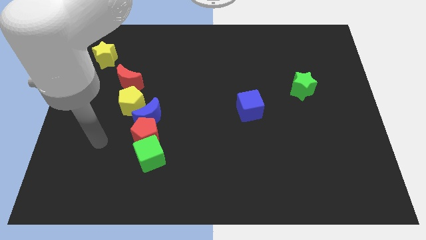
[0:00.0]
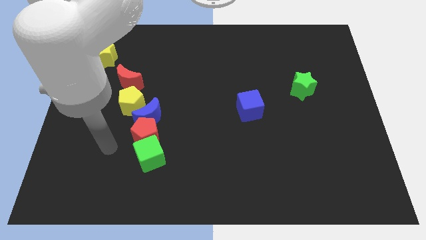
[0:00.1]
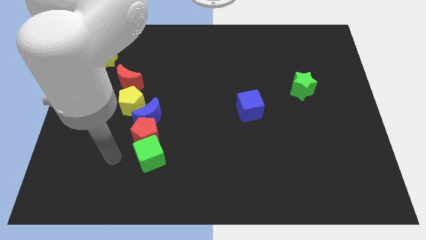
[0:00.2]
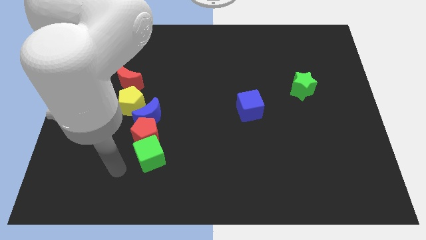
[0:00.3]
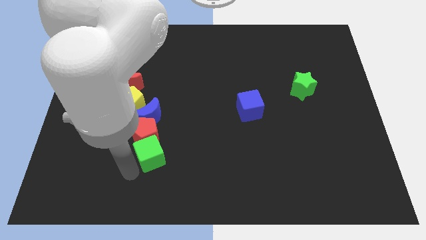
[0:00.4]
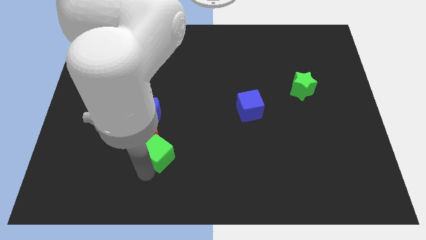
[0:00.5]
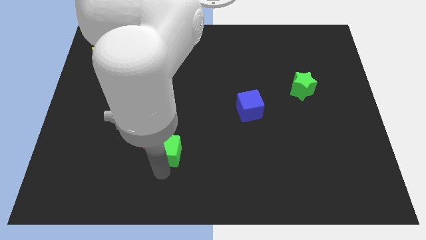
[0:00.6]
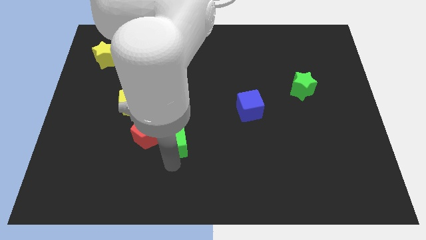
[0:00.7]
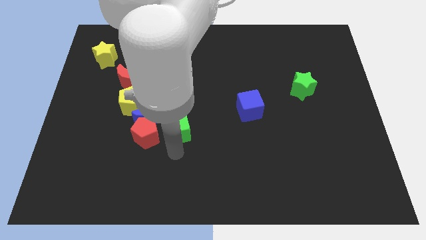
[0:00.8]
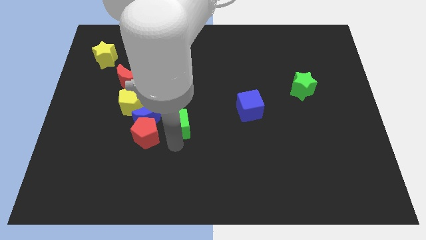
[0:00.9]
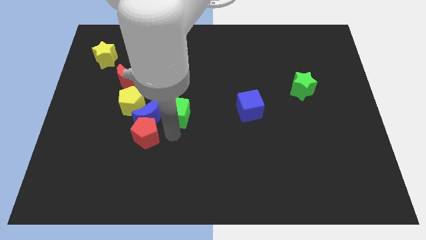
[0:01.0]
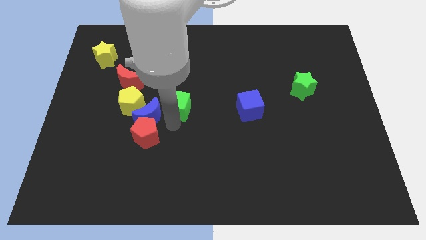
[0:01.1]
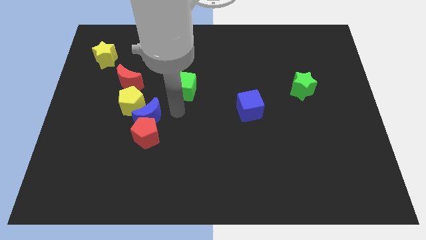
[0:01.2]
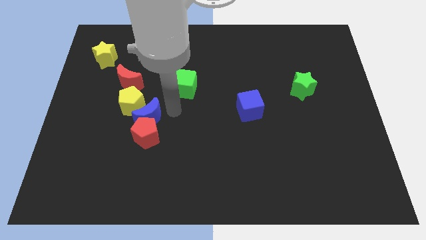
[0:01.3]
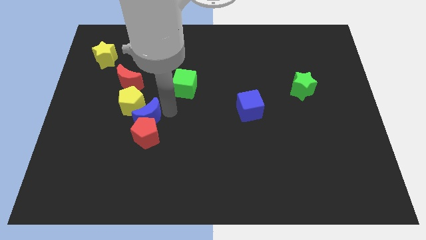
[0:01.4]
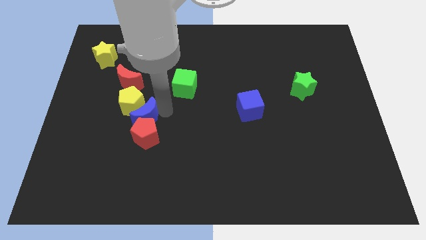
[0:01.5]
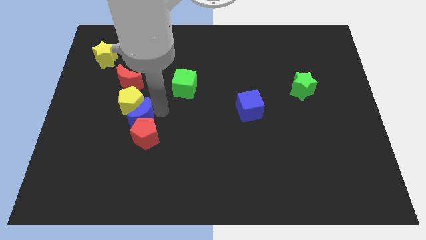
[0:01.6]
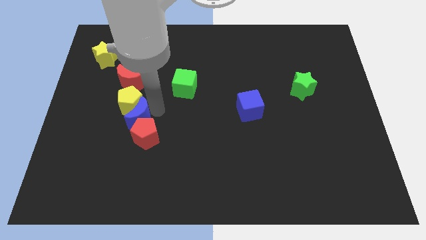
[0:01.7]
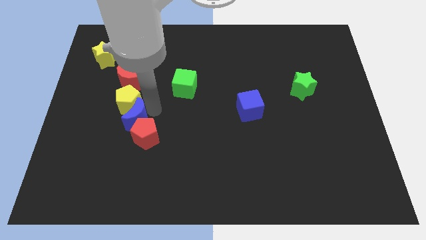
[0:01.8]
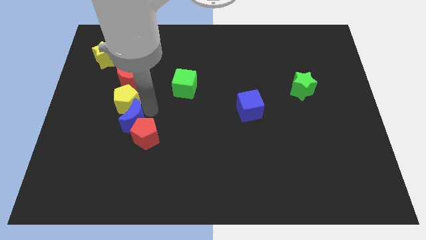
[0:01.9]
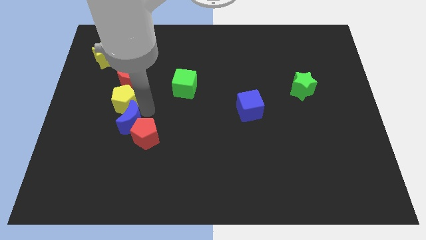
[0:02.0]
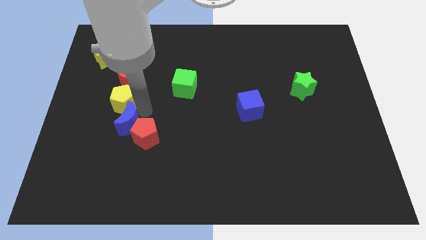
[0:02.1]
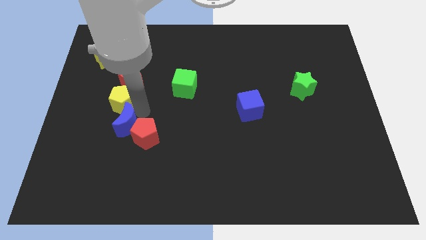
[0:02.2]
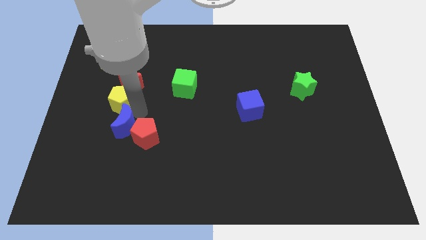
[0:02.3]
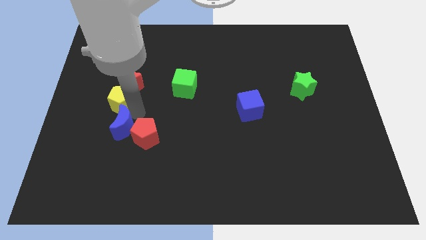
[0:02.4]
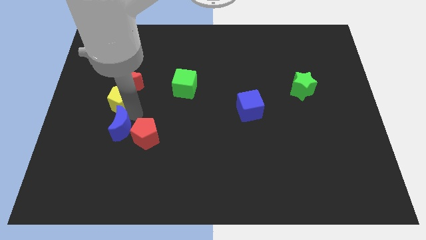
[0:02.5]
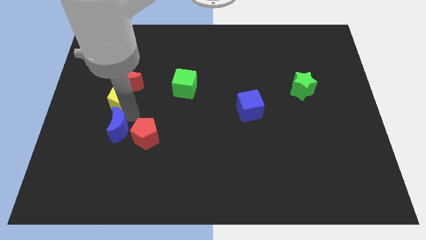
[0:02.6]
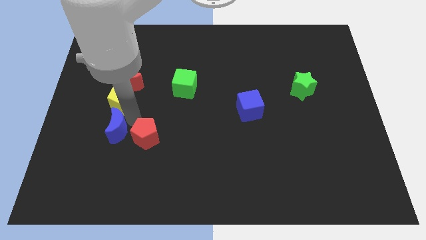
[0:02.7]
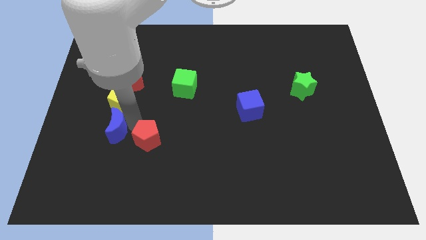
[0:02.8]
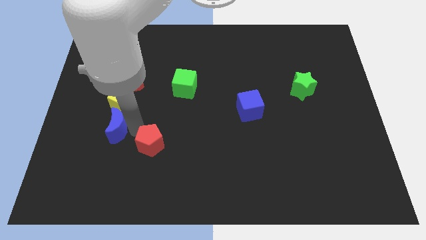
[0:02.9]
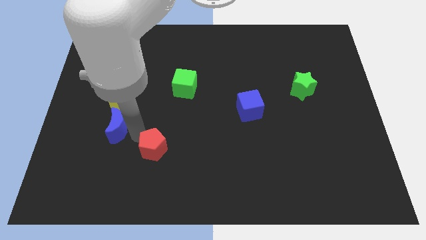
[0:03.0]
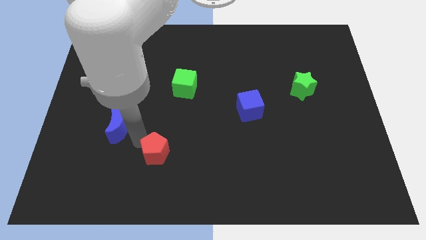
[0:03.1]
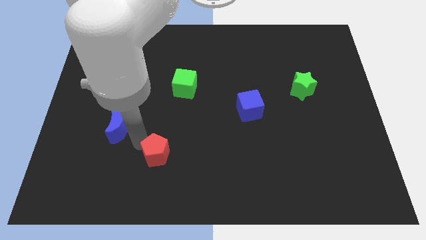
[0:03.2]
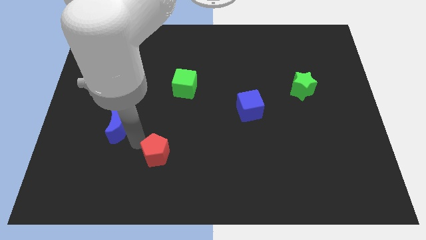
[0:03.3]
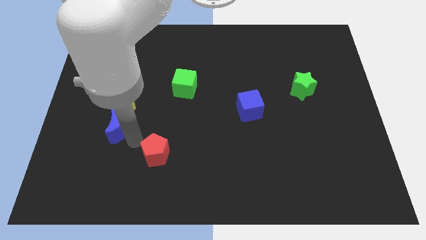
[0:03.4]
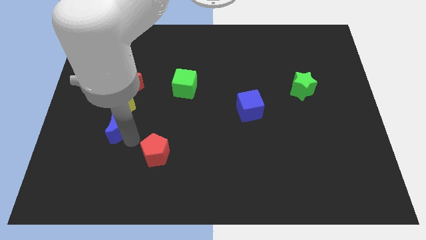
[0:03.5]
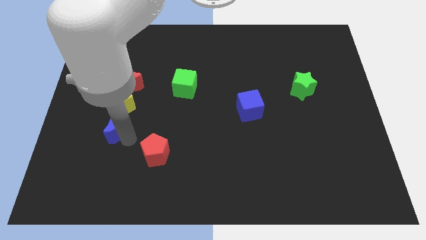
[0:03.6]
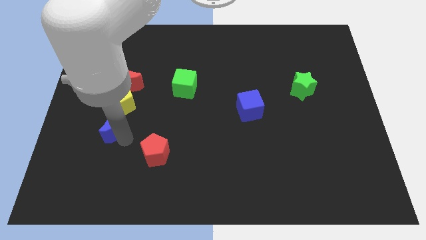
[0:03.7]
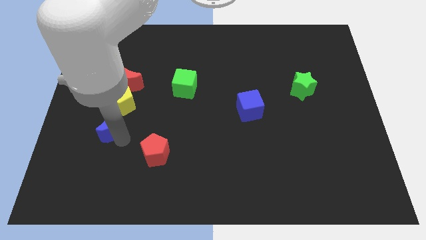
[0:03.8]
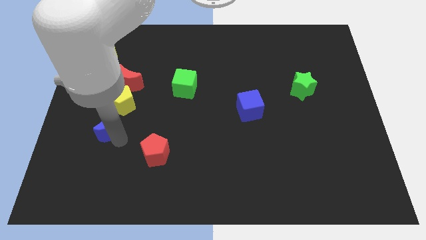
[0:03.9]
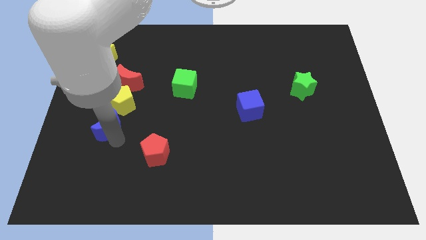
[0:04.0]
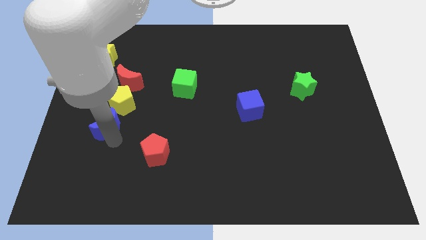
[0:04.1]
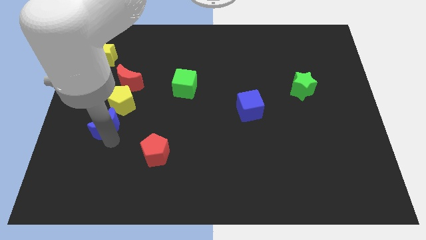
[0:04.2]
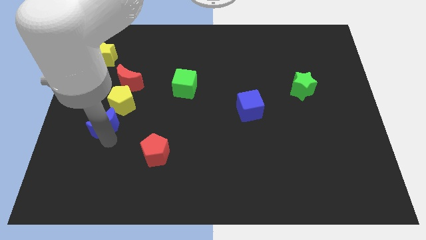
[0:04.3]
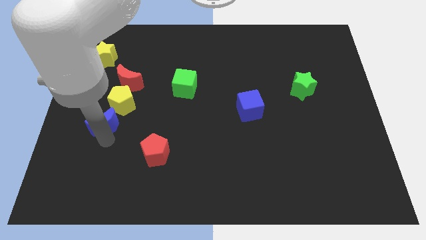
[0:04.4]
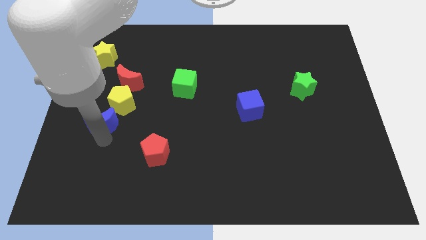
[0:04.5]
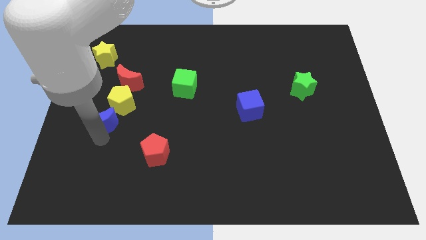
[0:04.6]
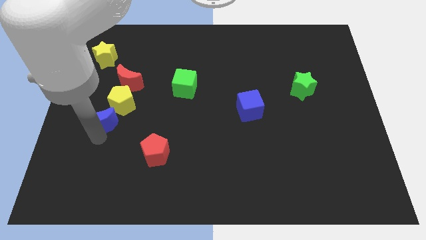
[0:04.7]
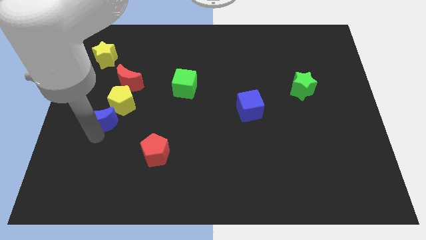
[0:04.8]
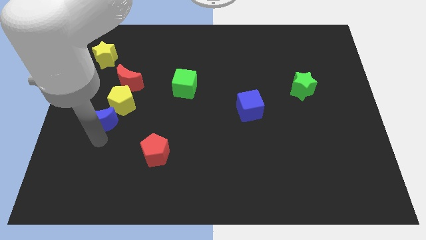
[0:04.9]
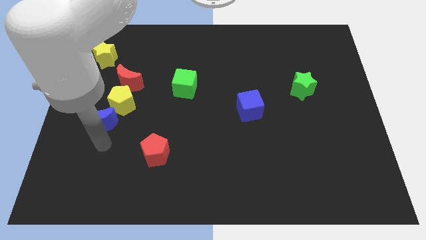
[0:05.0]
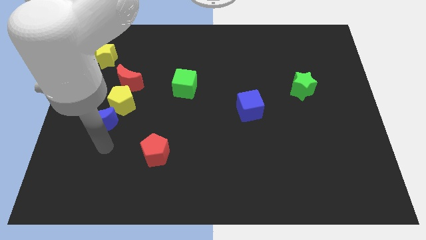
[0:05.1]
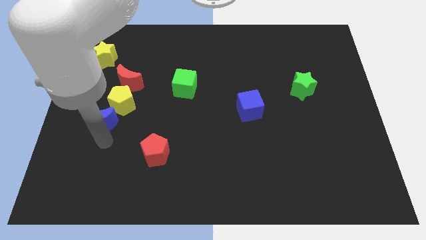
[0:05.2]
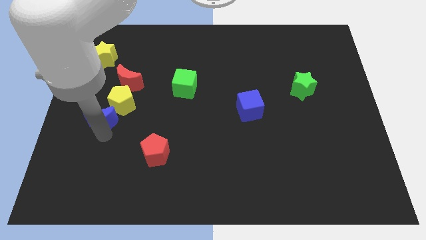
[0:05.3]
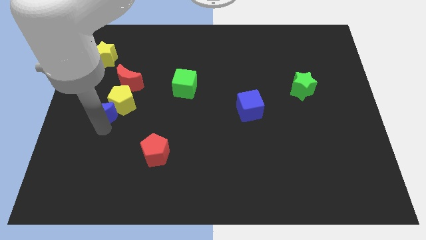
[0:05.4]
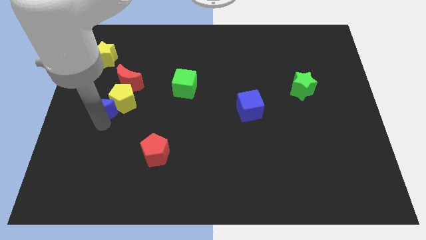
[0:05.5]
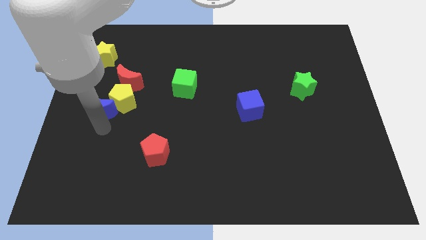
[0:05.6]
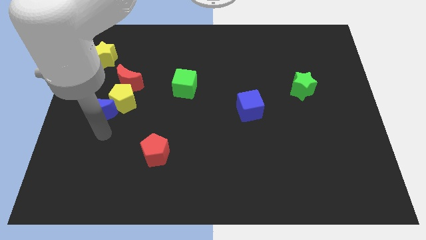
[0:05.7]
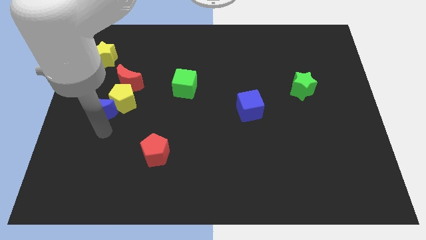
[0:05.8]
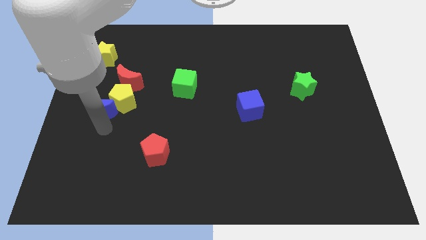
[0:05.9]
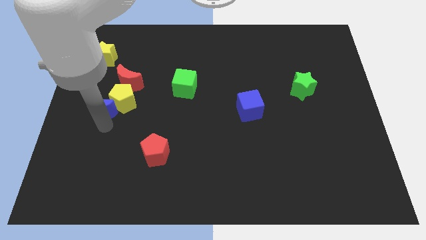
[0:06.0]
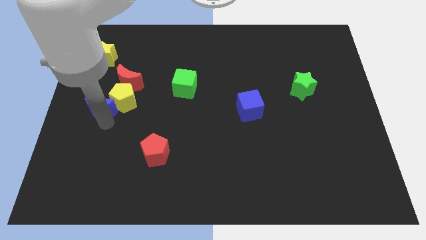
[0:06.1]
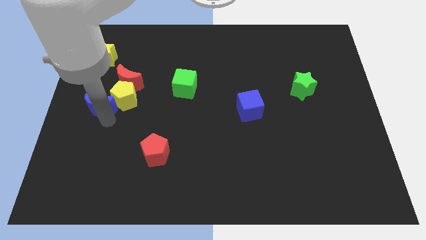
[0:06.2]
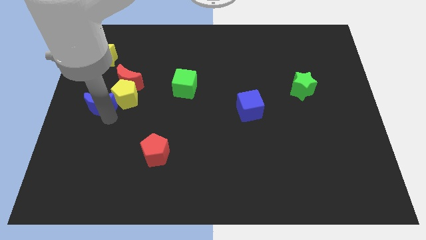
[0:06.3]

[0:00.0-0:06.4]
move the blue moon to the bottom side of the yellow star
